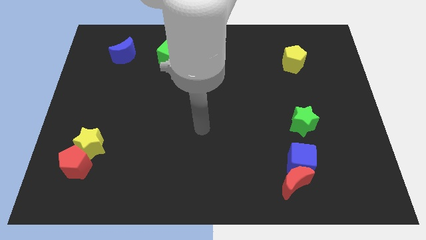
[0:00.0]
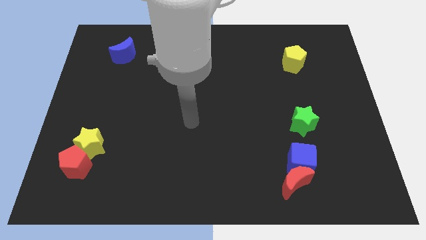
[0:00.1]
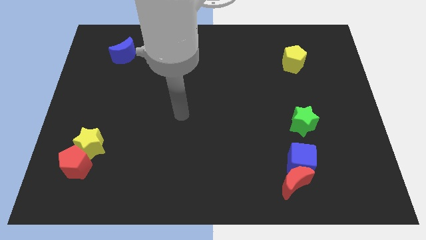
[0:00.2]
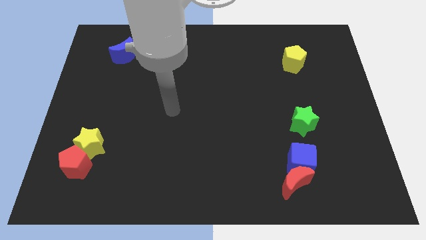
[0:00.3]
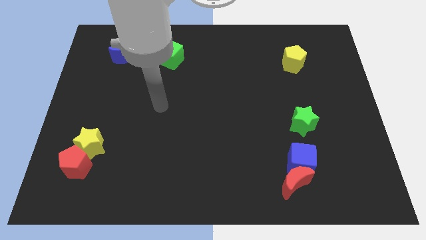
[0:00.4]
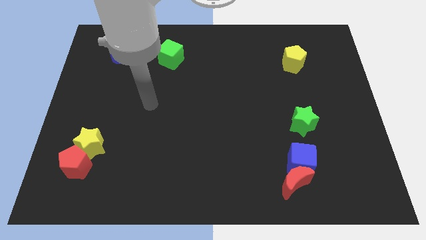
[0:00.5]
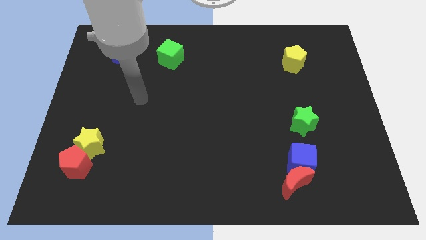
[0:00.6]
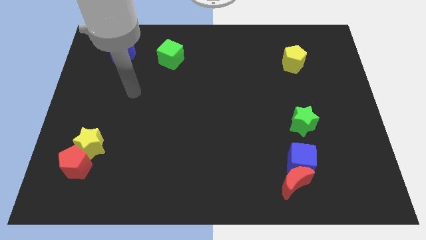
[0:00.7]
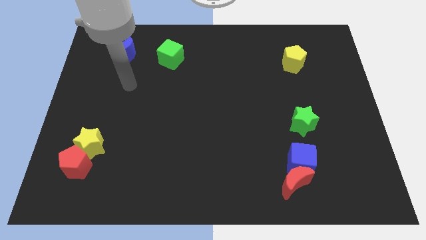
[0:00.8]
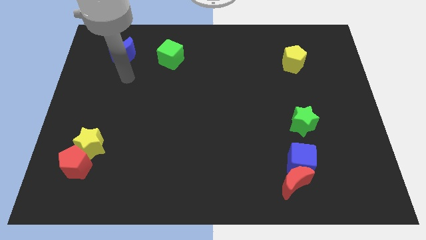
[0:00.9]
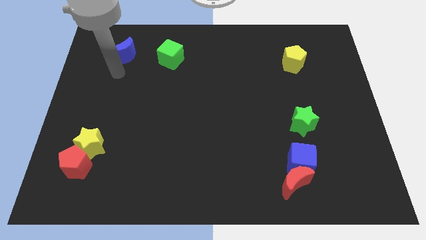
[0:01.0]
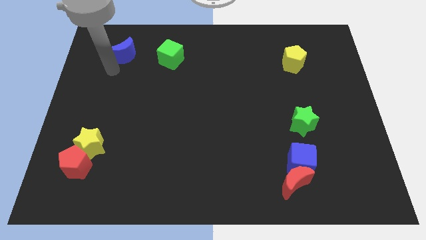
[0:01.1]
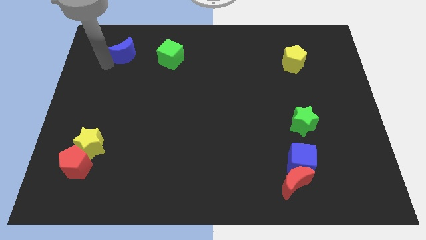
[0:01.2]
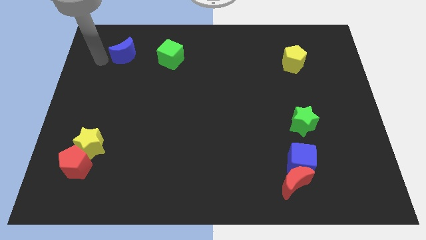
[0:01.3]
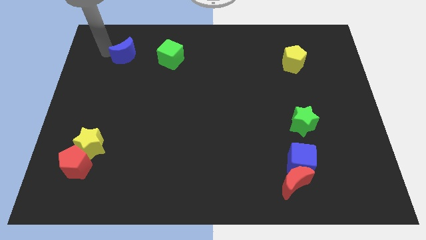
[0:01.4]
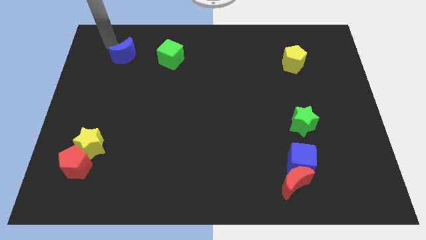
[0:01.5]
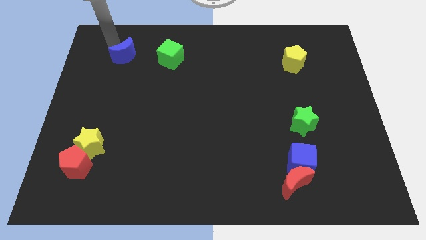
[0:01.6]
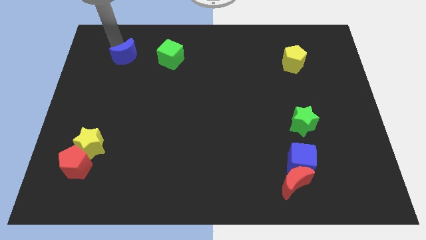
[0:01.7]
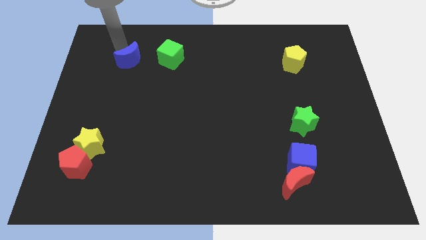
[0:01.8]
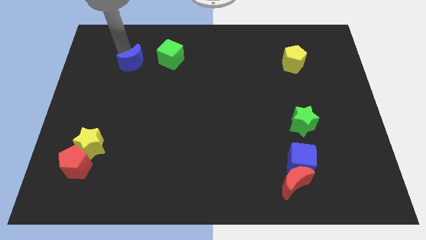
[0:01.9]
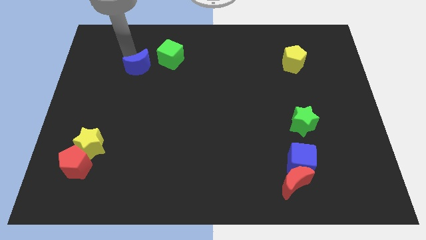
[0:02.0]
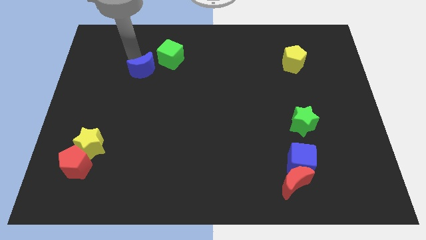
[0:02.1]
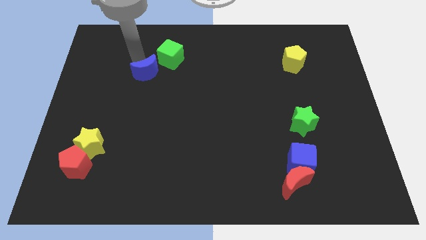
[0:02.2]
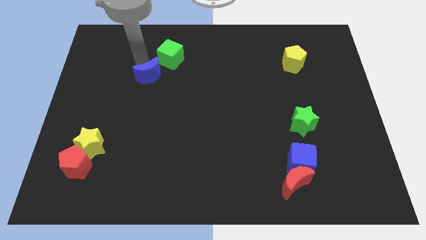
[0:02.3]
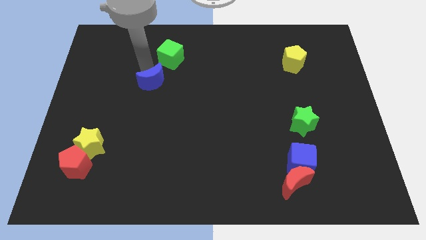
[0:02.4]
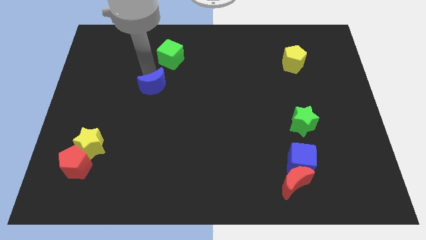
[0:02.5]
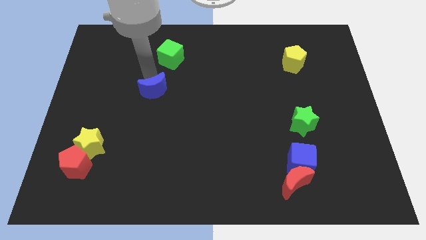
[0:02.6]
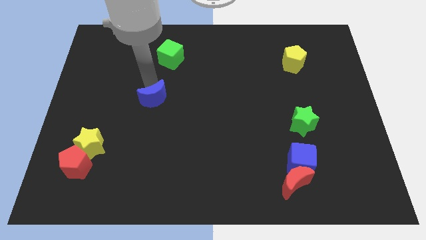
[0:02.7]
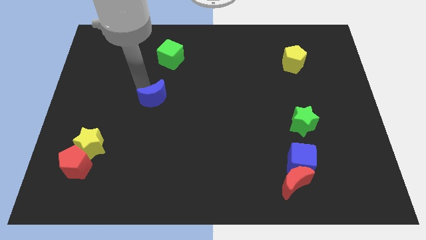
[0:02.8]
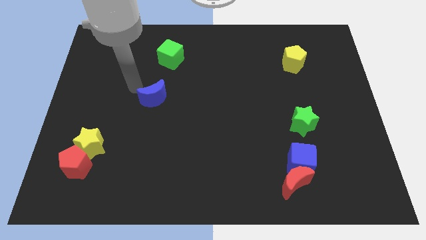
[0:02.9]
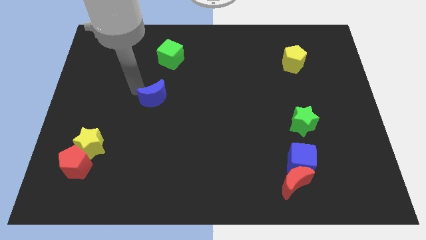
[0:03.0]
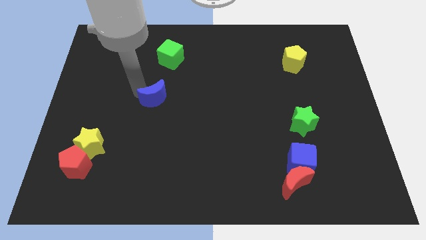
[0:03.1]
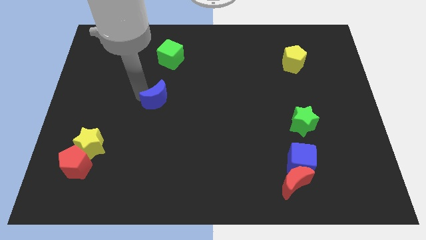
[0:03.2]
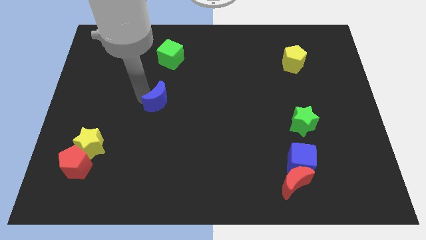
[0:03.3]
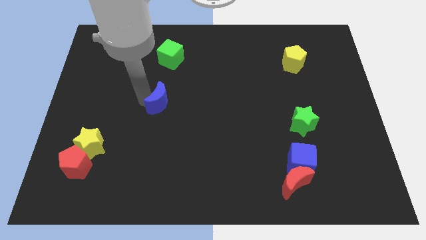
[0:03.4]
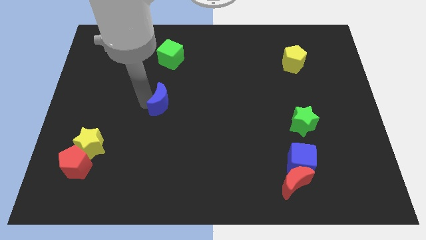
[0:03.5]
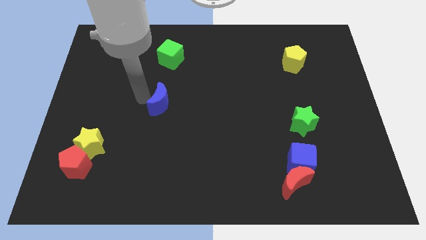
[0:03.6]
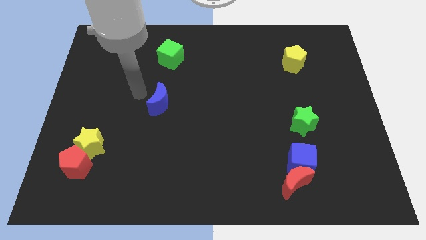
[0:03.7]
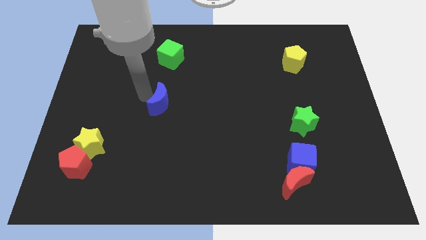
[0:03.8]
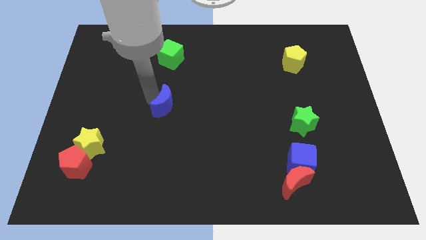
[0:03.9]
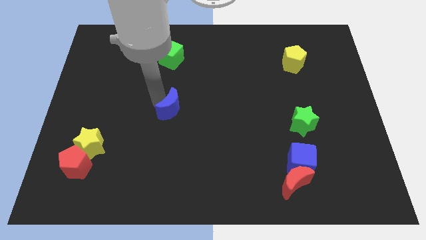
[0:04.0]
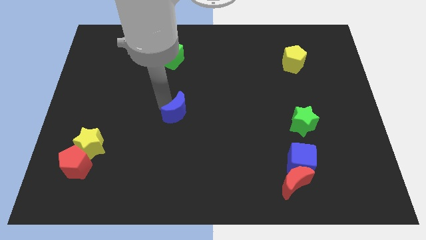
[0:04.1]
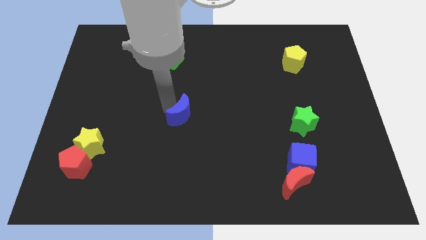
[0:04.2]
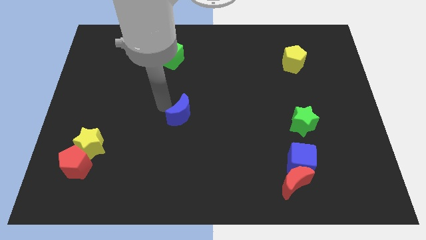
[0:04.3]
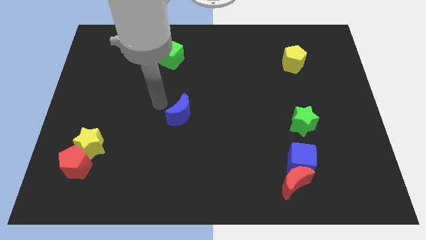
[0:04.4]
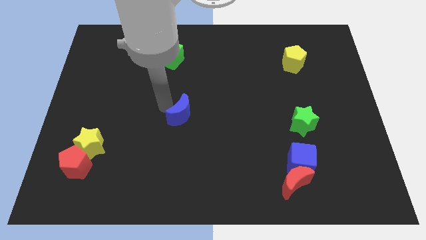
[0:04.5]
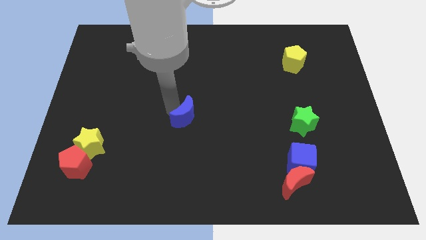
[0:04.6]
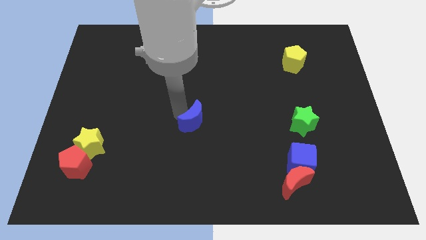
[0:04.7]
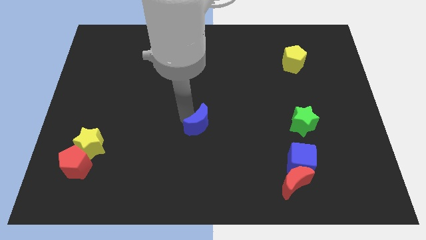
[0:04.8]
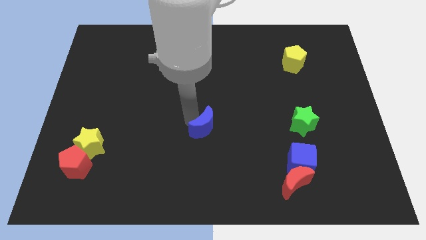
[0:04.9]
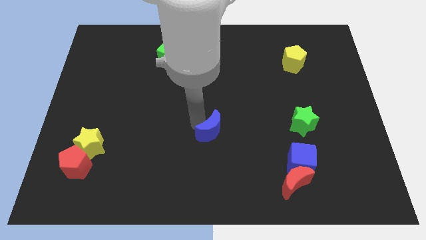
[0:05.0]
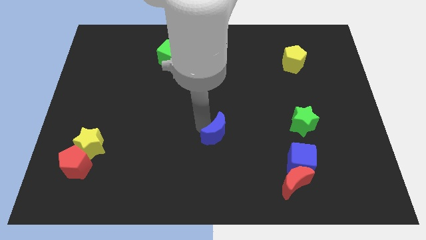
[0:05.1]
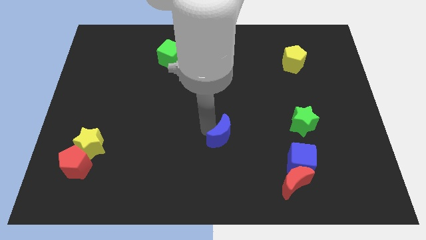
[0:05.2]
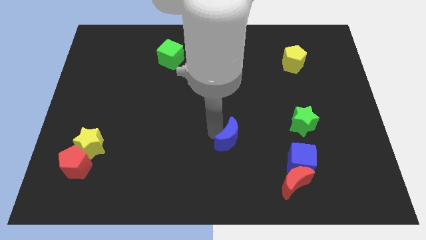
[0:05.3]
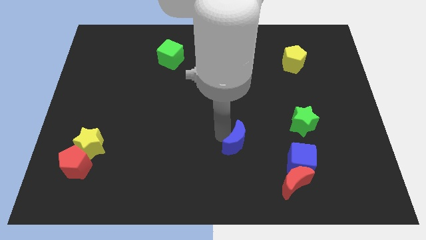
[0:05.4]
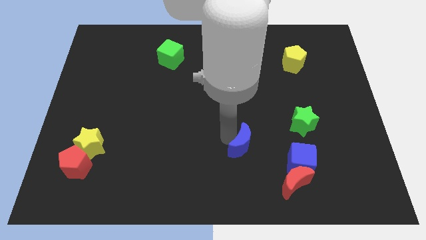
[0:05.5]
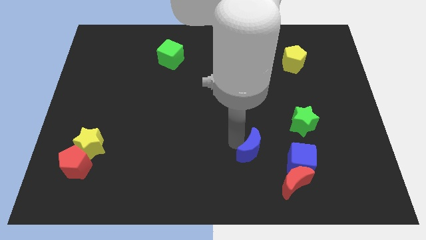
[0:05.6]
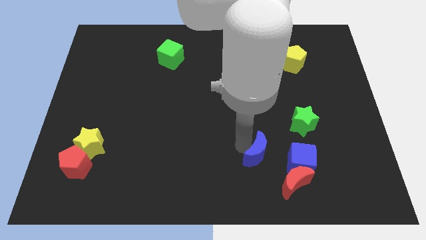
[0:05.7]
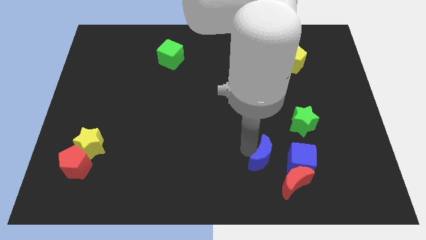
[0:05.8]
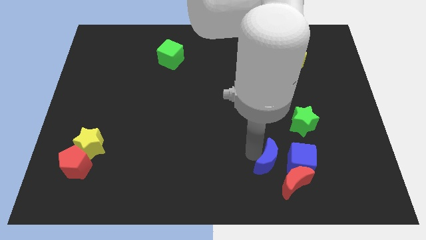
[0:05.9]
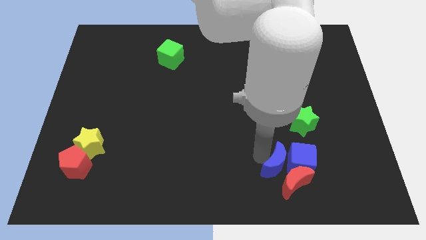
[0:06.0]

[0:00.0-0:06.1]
put the blue moon close to the red moon

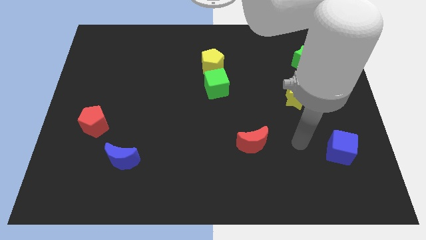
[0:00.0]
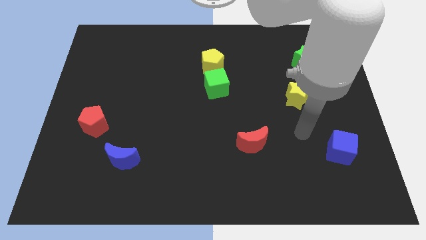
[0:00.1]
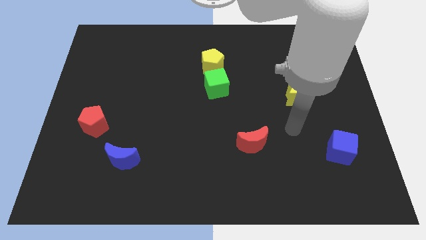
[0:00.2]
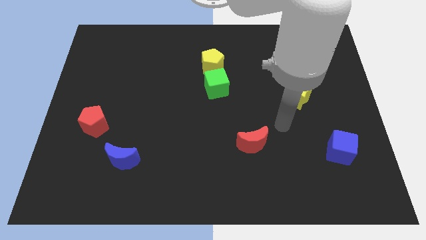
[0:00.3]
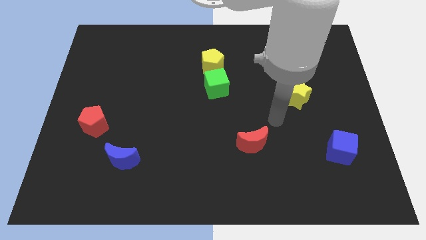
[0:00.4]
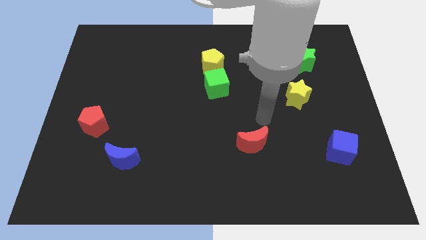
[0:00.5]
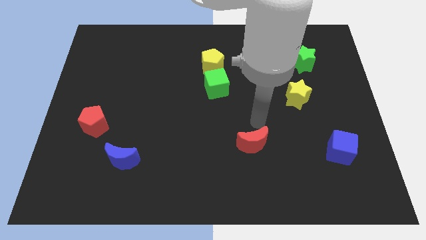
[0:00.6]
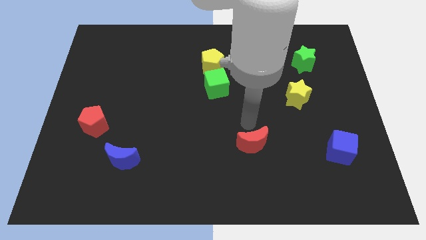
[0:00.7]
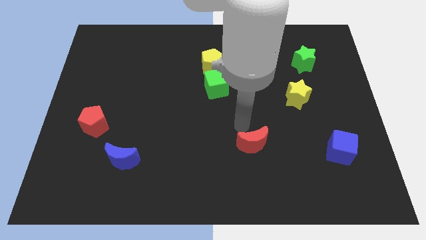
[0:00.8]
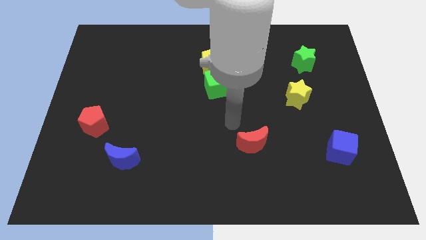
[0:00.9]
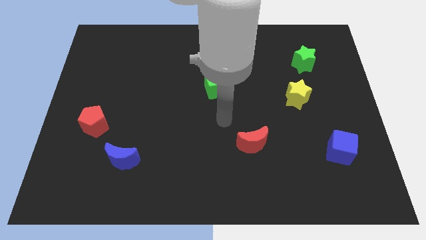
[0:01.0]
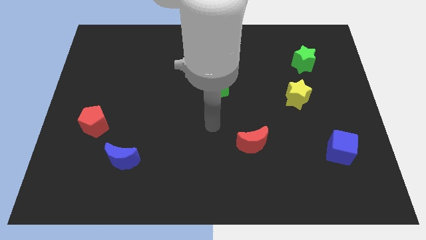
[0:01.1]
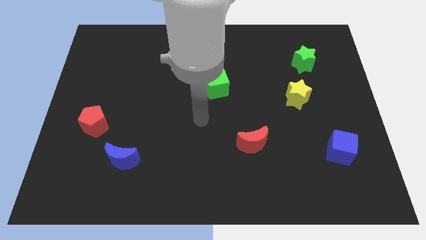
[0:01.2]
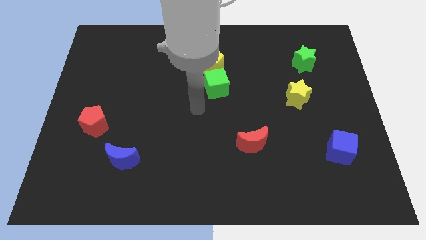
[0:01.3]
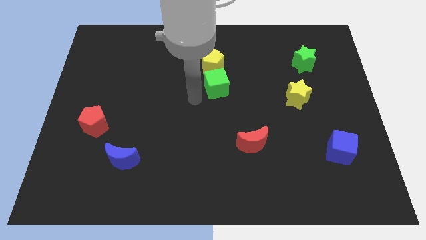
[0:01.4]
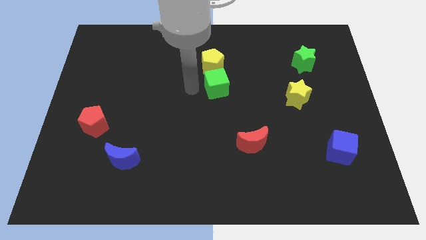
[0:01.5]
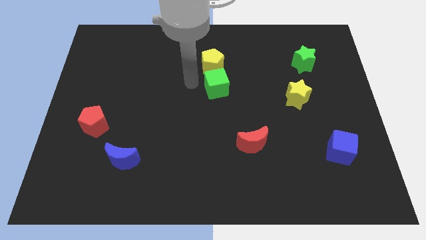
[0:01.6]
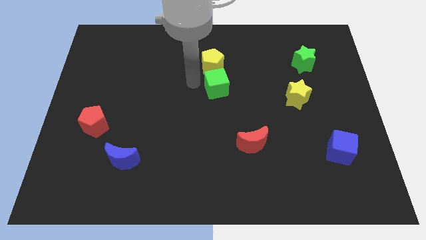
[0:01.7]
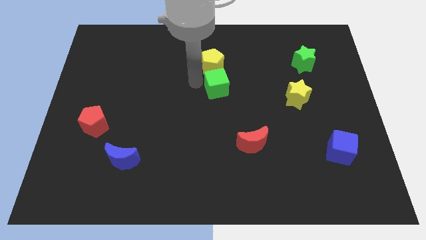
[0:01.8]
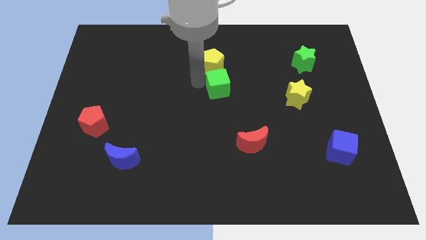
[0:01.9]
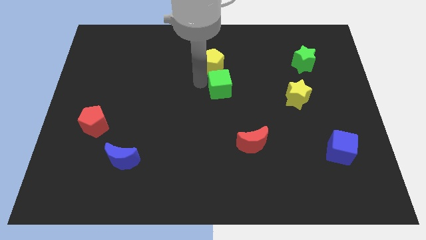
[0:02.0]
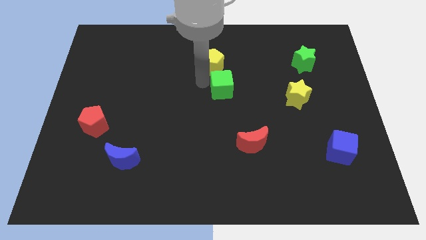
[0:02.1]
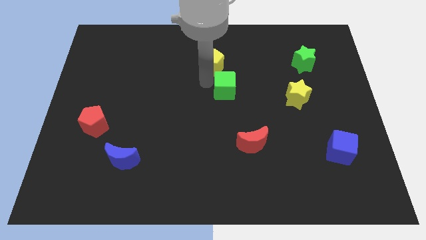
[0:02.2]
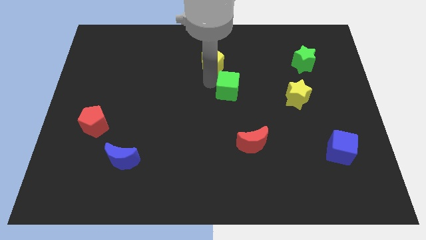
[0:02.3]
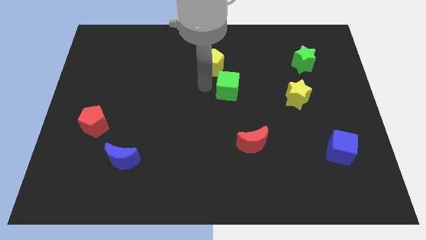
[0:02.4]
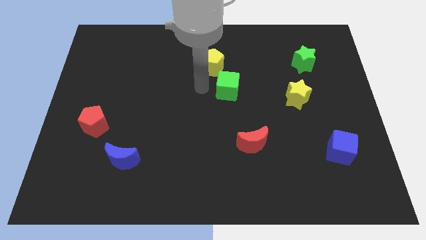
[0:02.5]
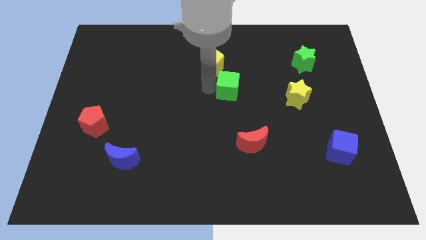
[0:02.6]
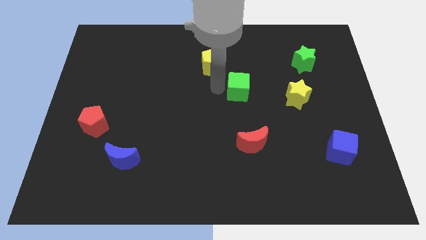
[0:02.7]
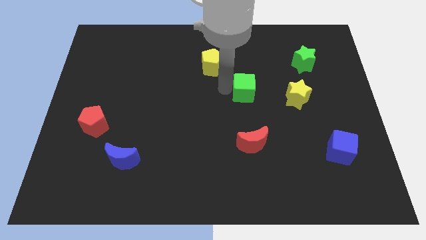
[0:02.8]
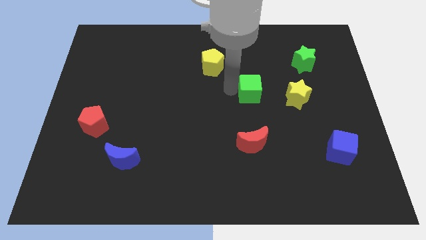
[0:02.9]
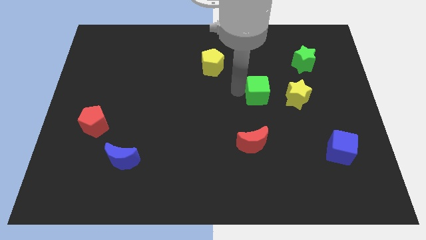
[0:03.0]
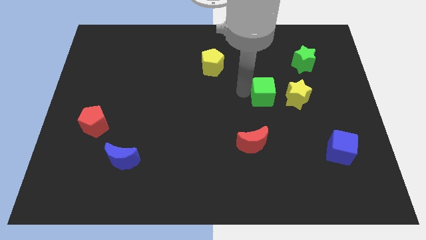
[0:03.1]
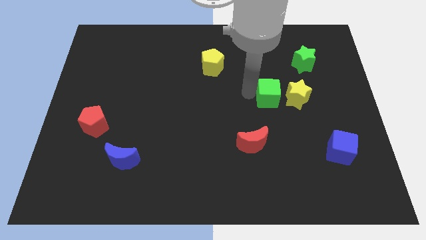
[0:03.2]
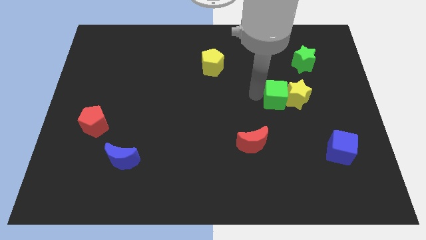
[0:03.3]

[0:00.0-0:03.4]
push the green cube to the yellow star
